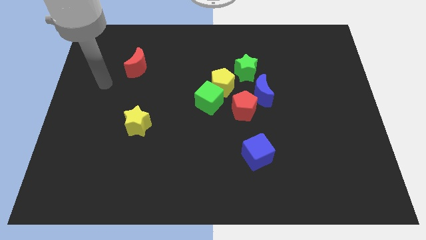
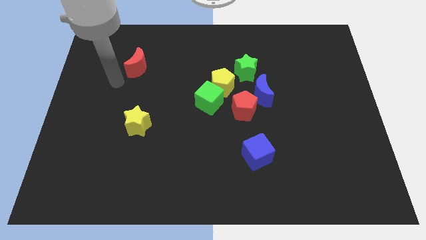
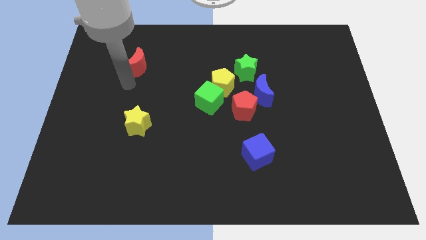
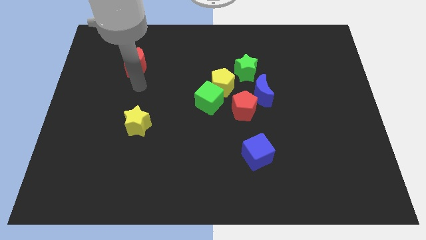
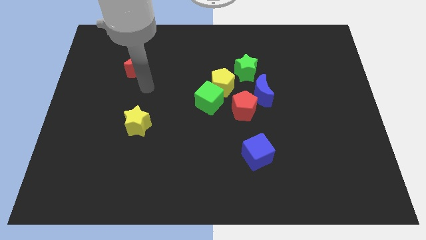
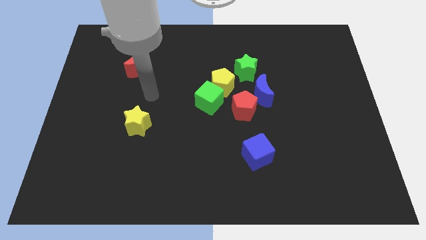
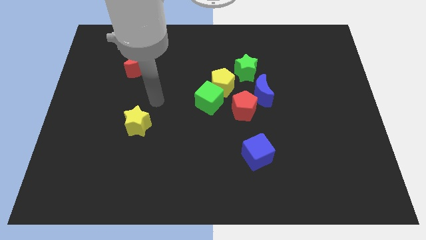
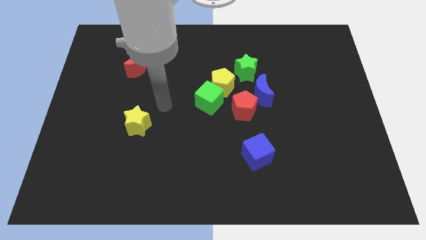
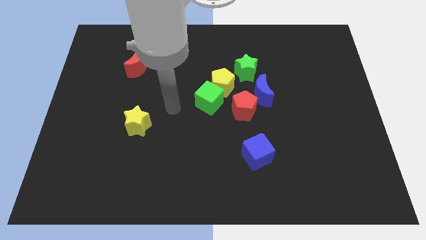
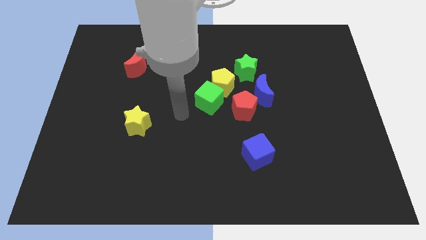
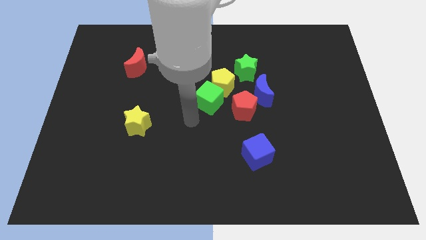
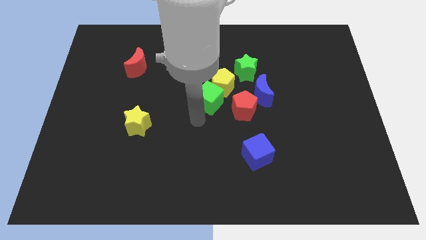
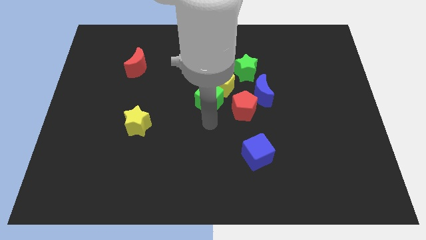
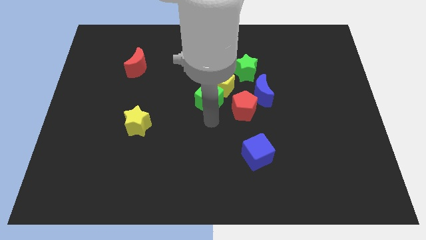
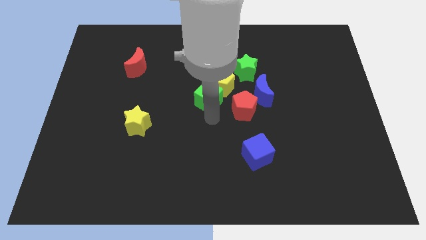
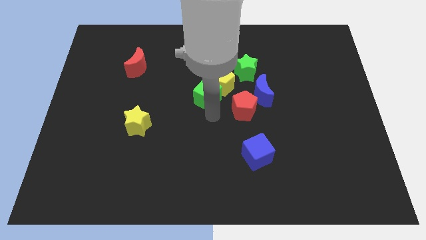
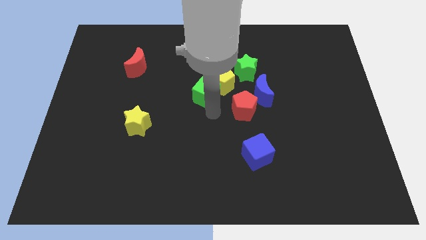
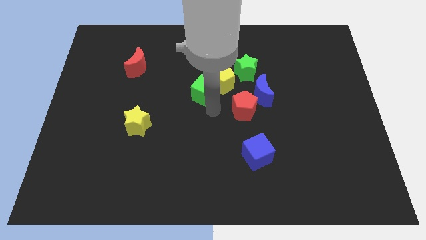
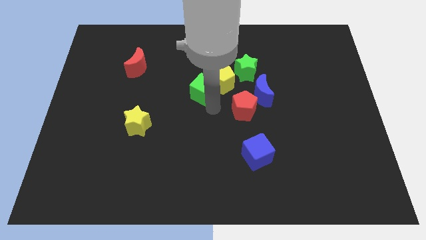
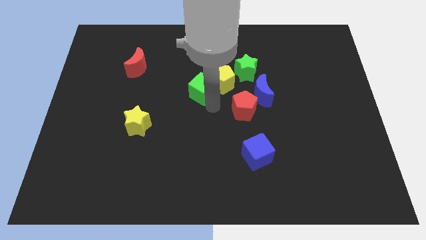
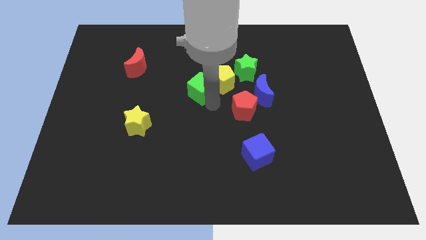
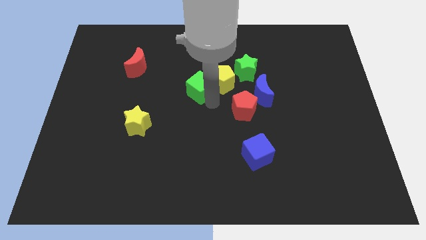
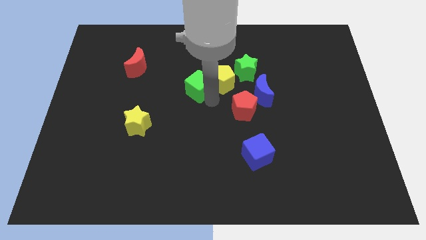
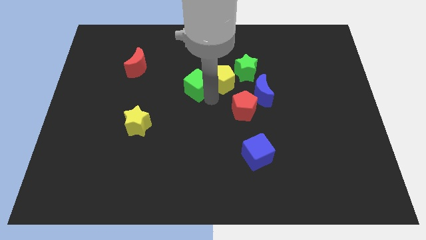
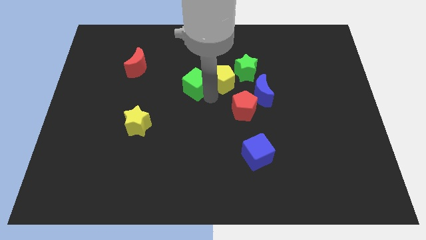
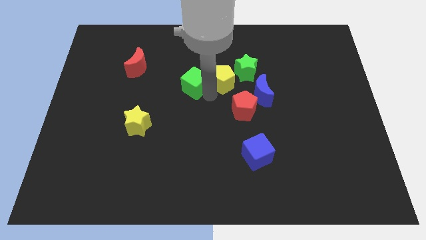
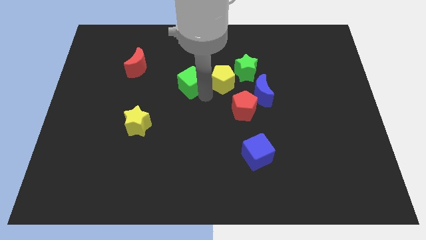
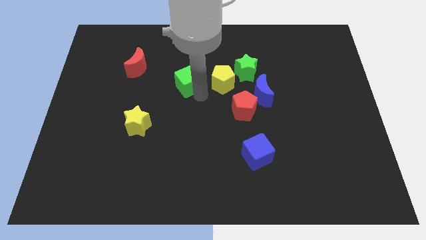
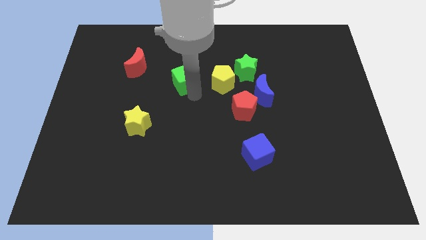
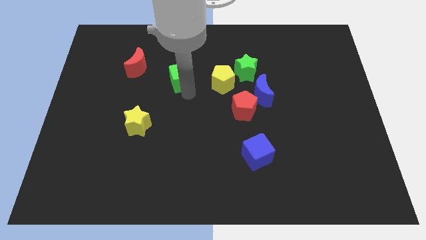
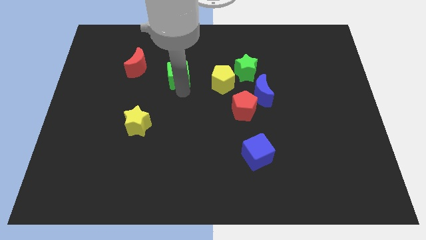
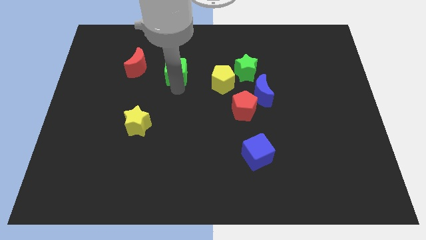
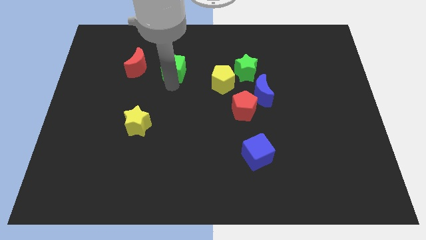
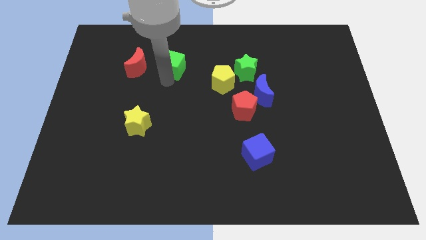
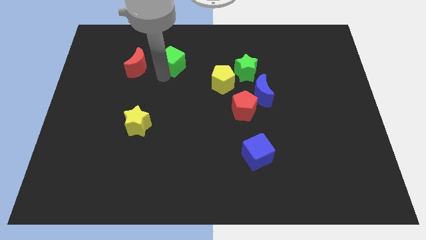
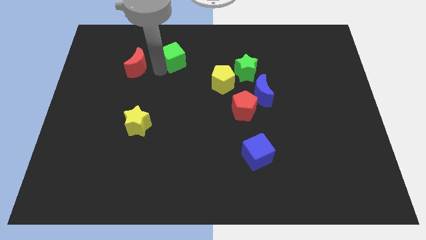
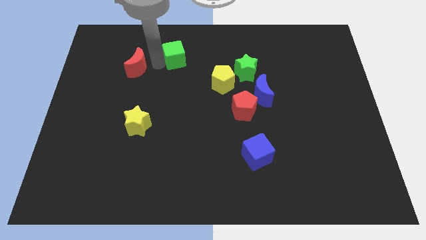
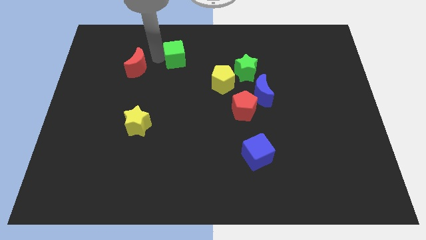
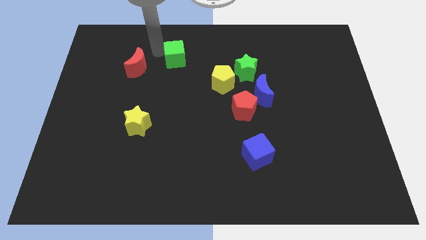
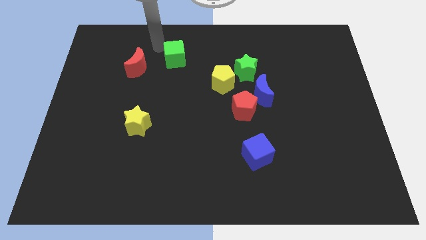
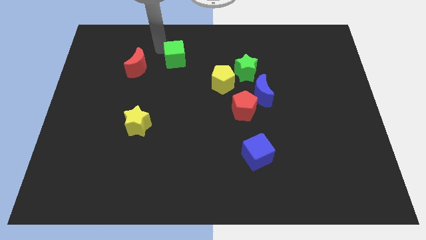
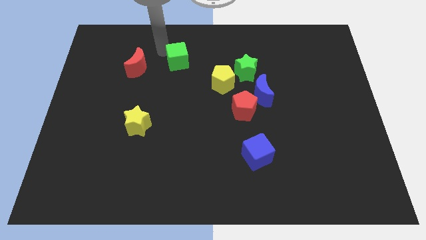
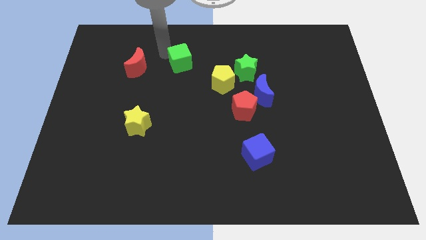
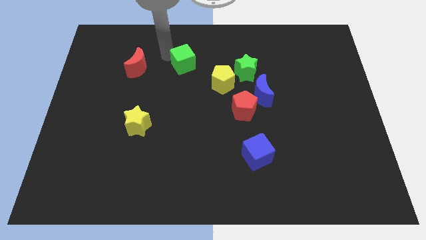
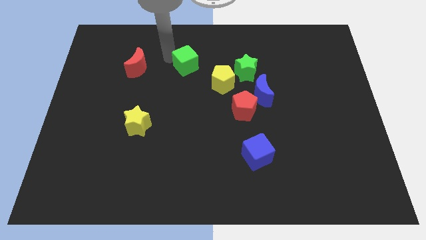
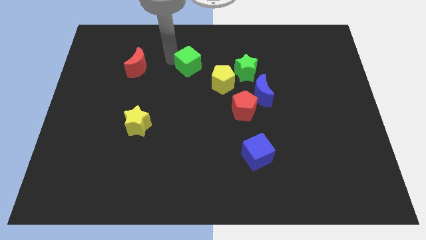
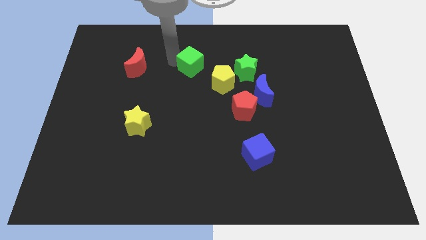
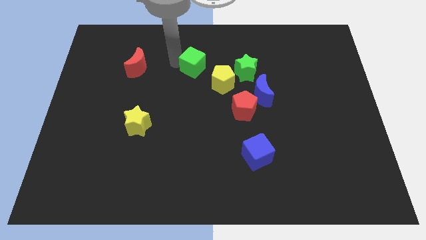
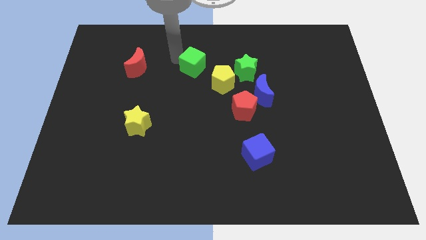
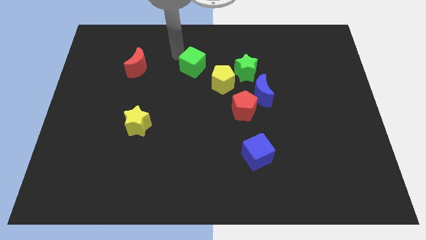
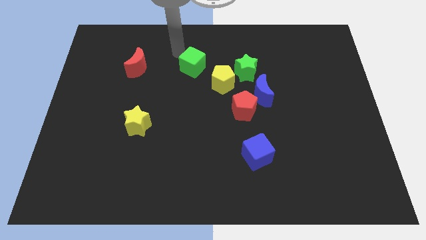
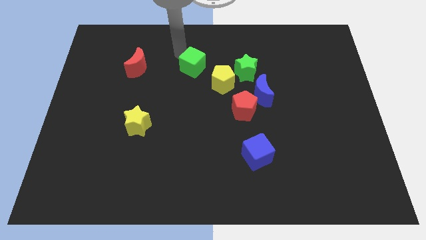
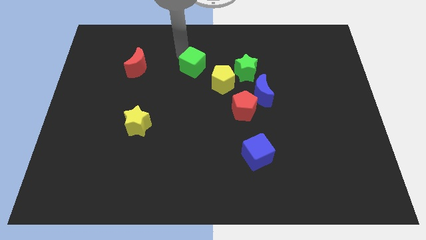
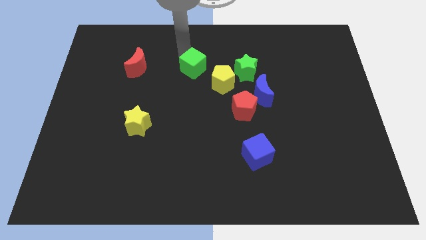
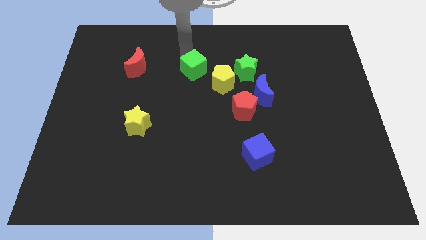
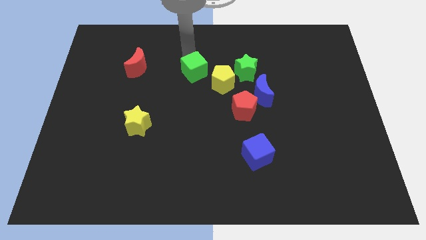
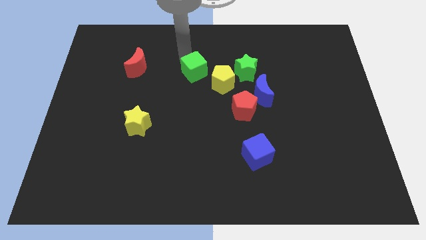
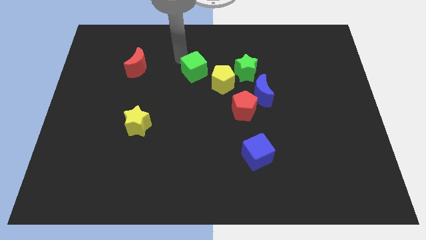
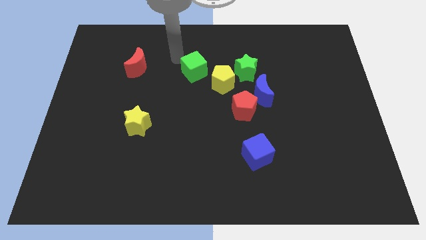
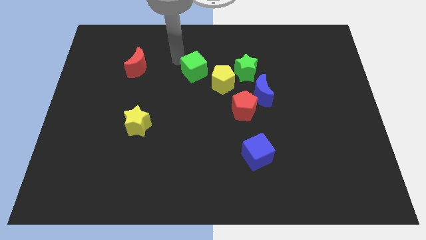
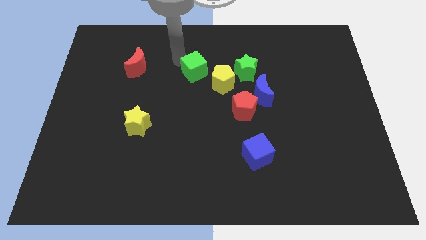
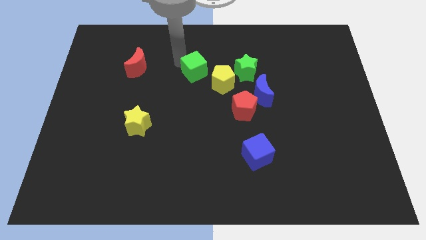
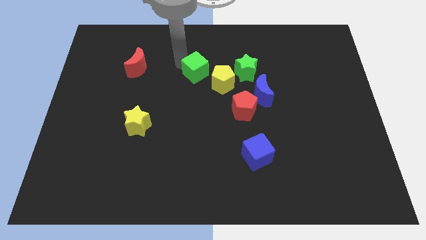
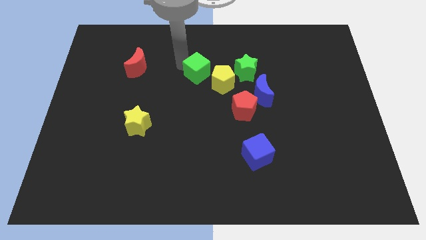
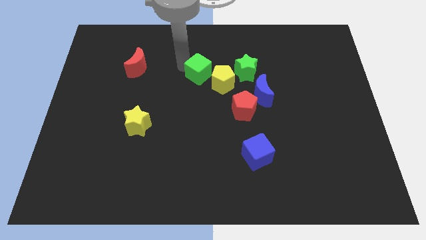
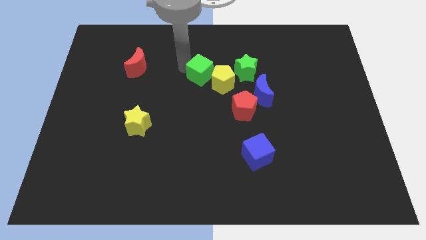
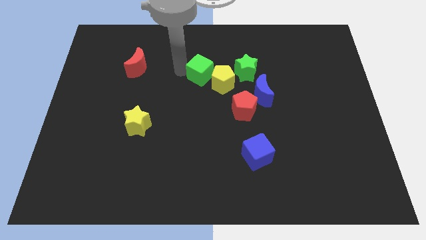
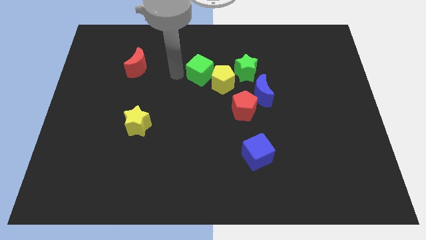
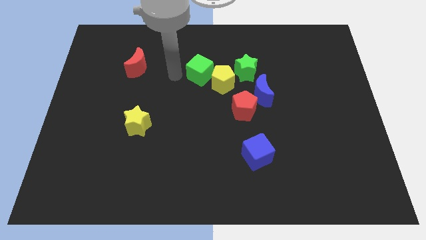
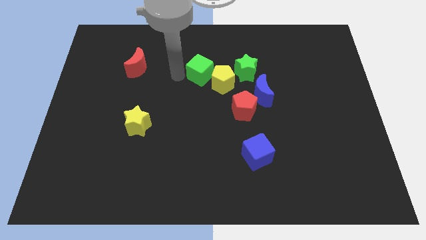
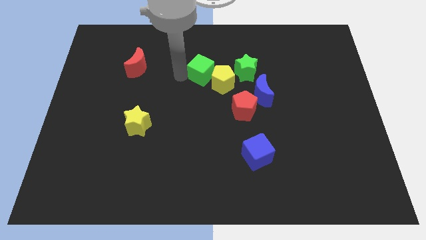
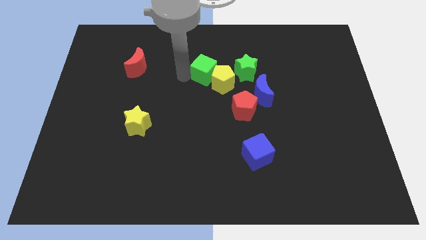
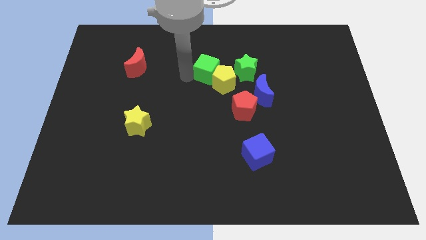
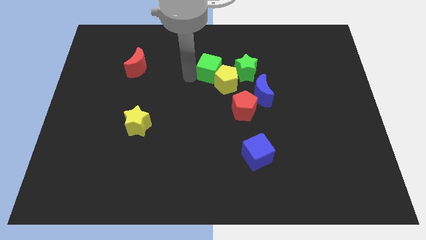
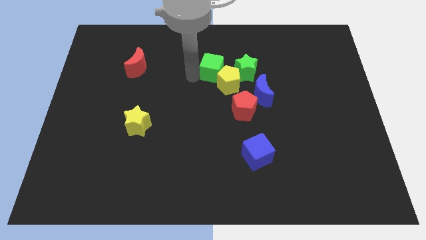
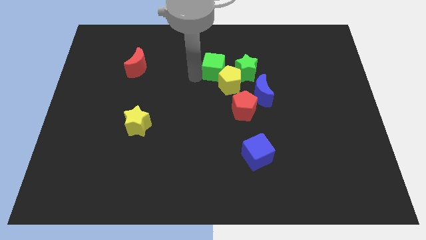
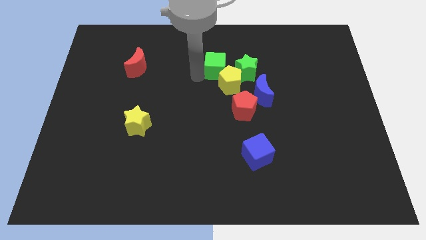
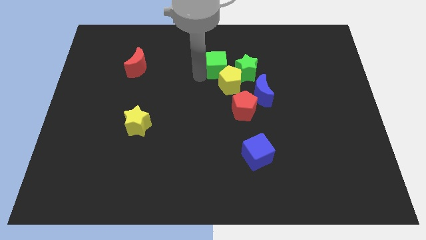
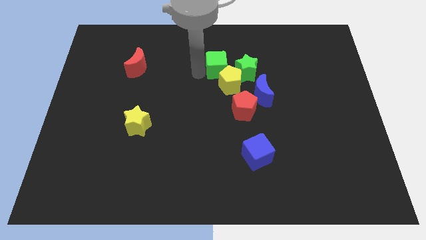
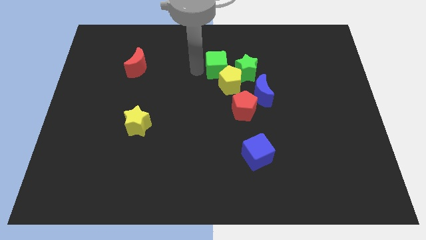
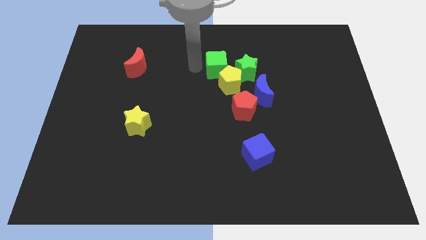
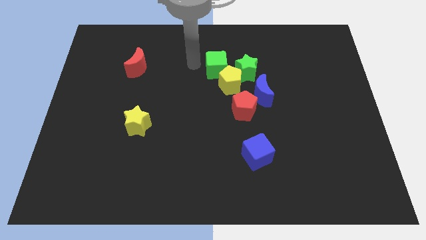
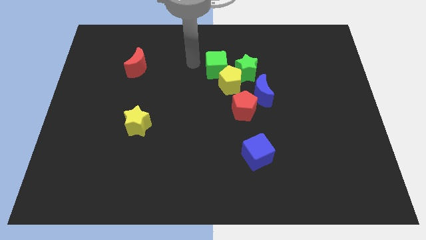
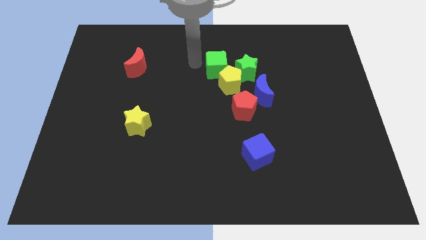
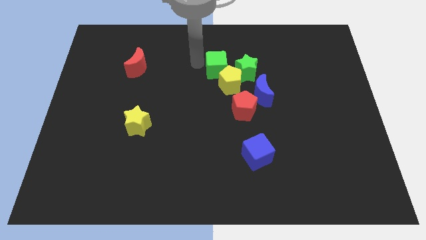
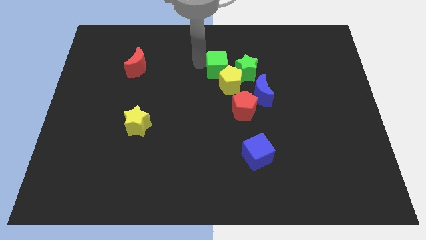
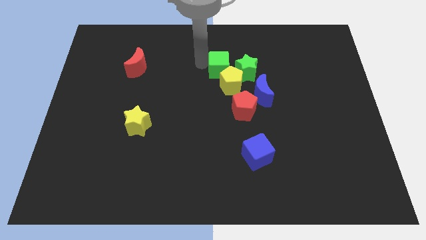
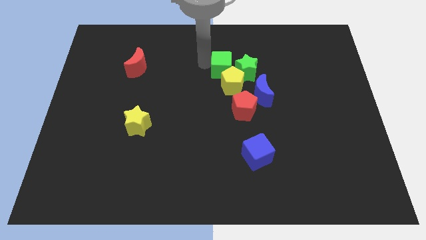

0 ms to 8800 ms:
move the green cube close to the green star
